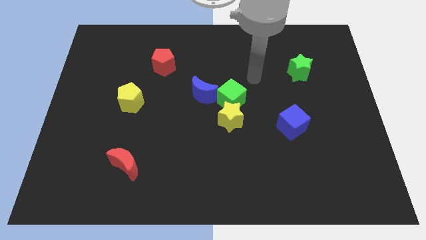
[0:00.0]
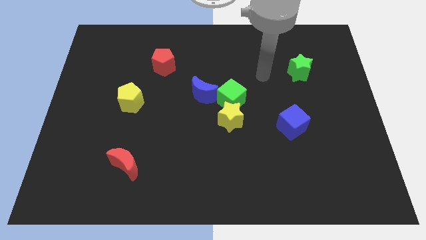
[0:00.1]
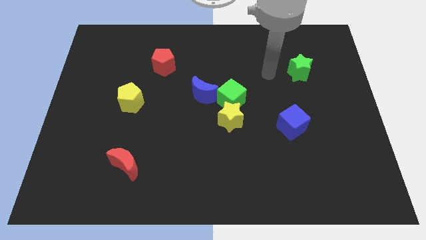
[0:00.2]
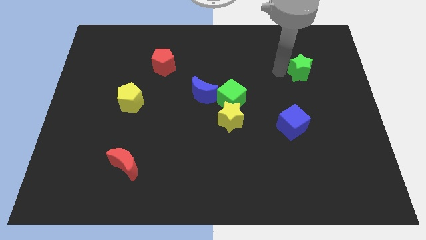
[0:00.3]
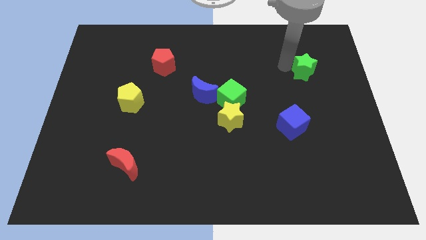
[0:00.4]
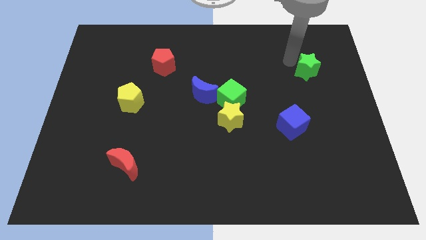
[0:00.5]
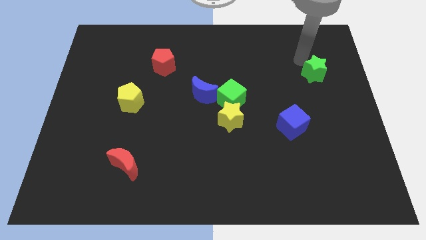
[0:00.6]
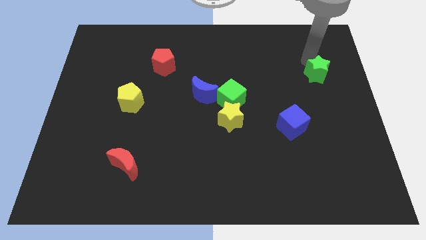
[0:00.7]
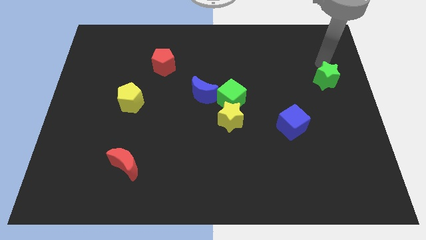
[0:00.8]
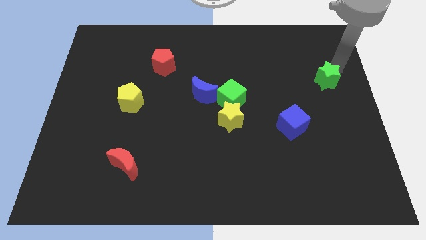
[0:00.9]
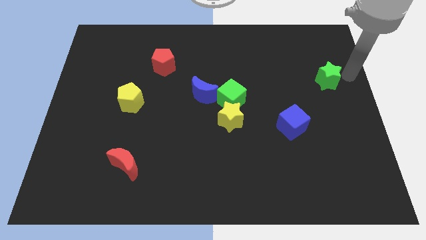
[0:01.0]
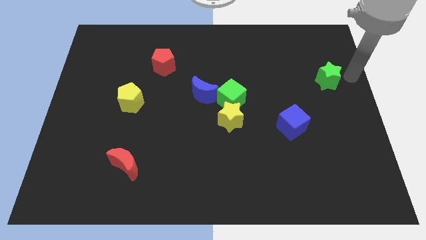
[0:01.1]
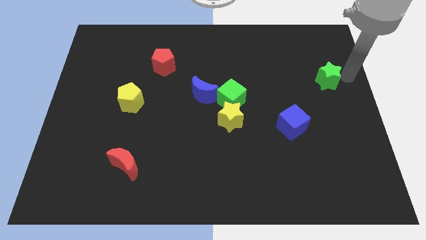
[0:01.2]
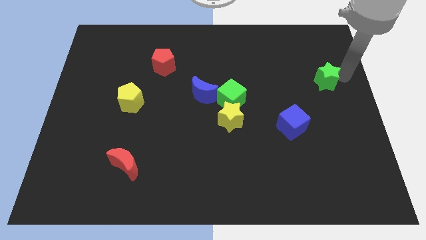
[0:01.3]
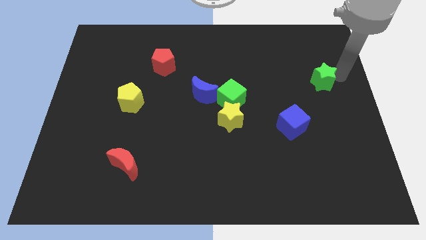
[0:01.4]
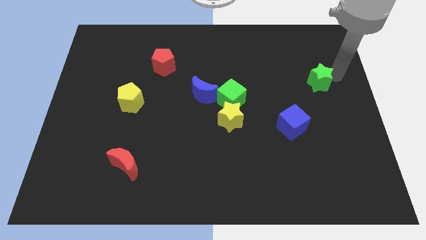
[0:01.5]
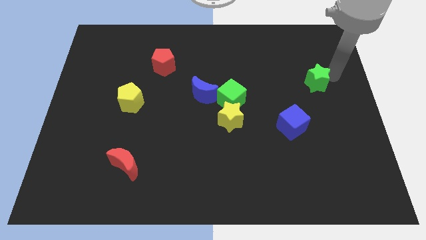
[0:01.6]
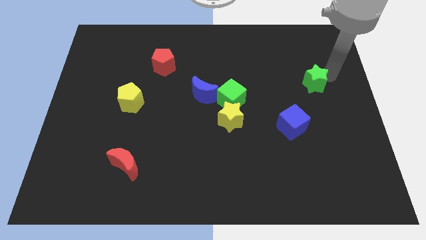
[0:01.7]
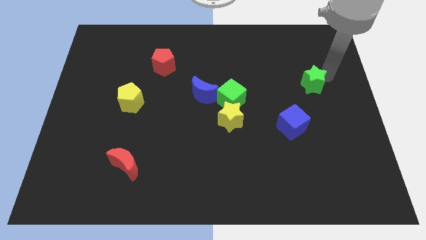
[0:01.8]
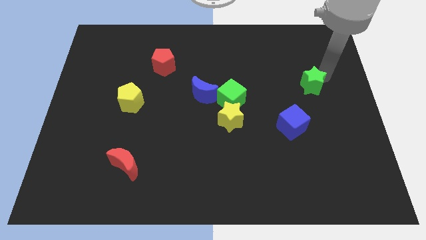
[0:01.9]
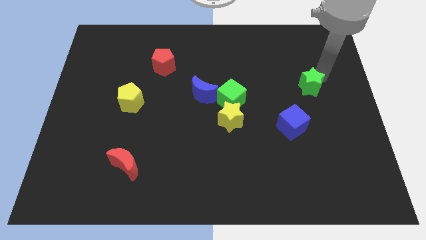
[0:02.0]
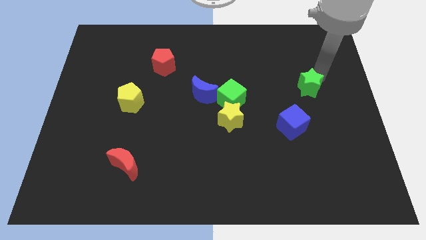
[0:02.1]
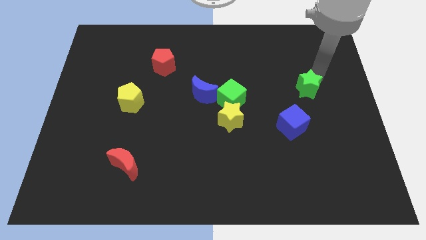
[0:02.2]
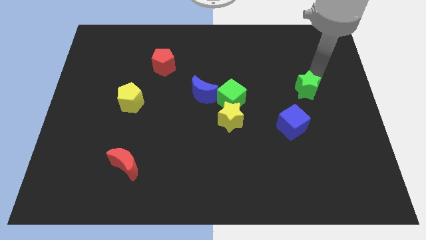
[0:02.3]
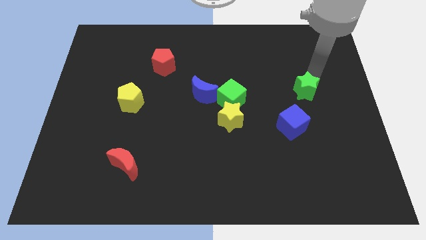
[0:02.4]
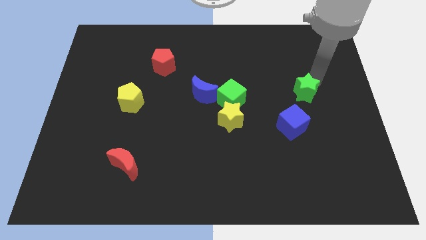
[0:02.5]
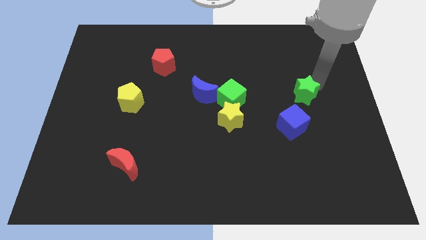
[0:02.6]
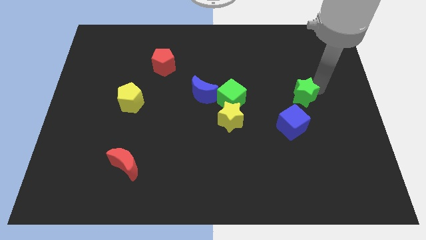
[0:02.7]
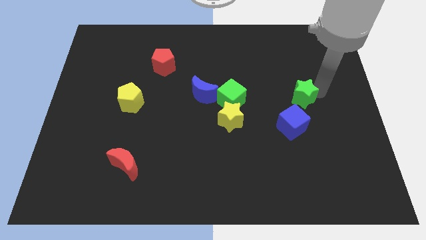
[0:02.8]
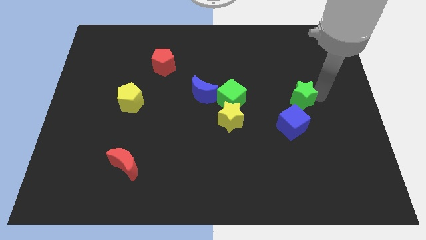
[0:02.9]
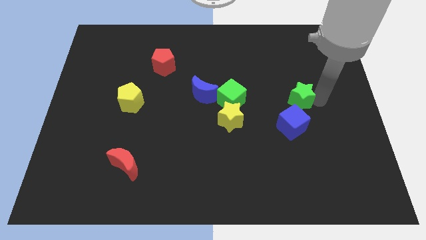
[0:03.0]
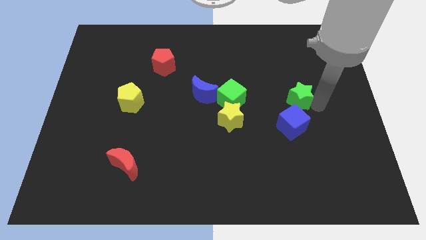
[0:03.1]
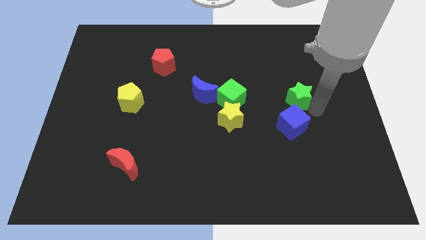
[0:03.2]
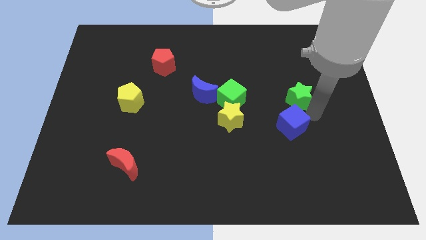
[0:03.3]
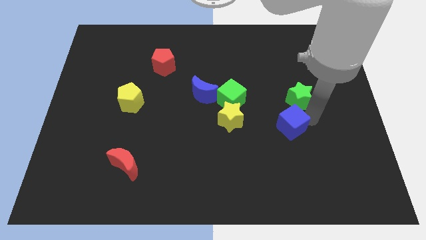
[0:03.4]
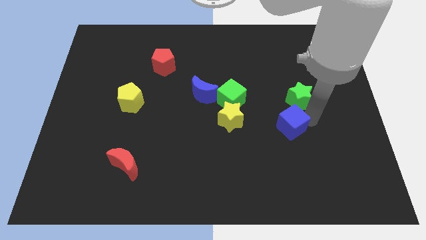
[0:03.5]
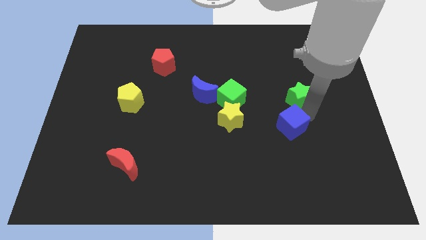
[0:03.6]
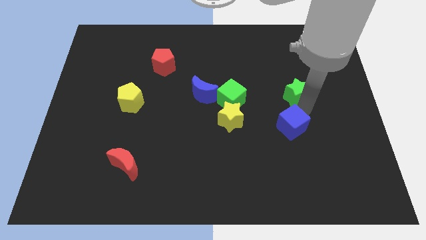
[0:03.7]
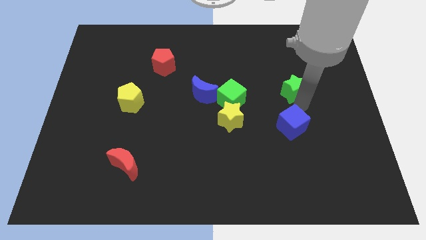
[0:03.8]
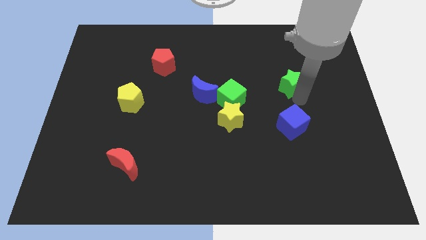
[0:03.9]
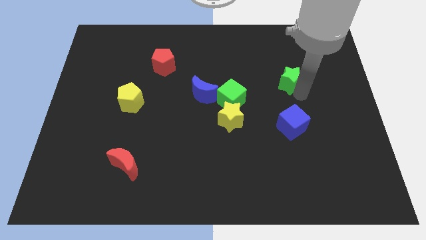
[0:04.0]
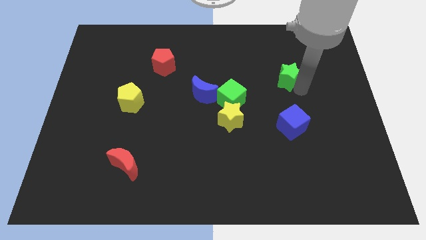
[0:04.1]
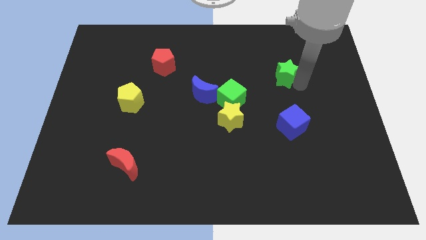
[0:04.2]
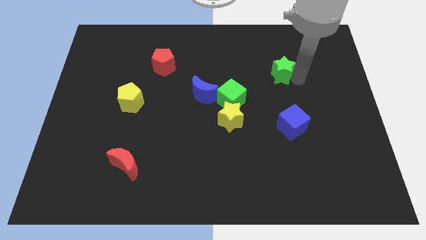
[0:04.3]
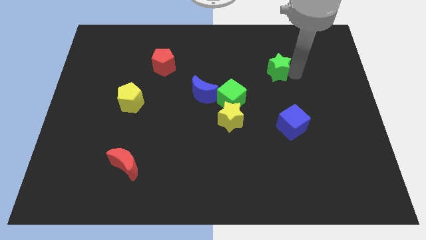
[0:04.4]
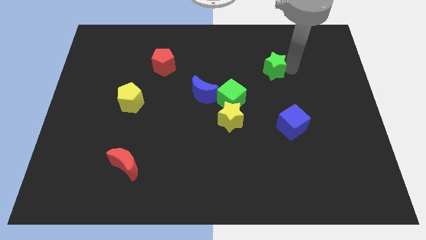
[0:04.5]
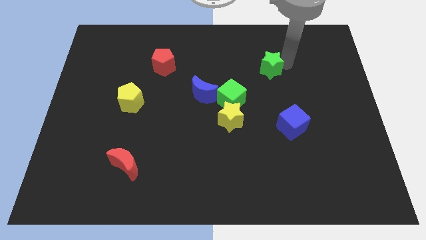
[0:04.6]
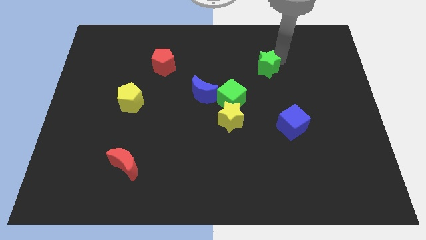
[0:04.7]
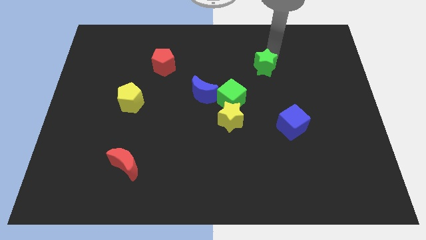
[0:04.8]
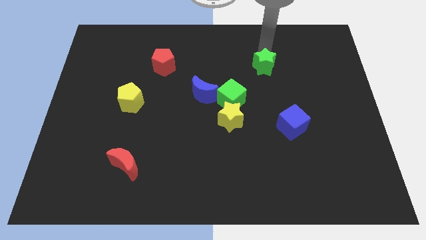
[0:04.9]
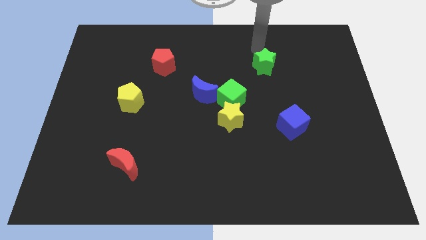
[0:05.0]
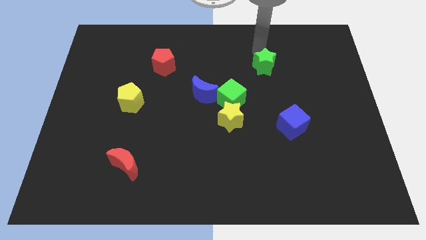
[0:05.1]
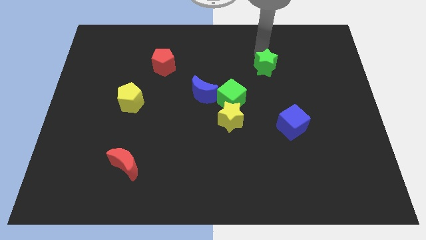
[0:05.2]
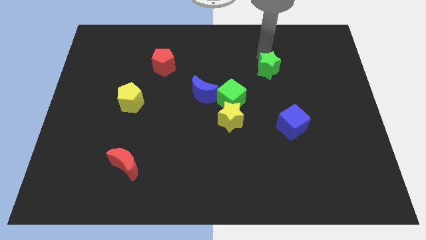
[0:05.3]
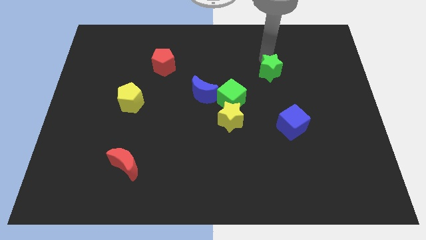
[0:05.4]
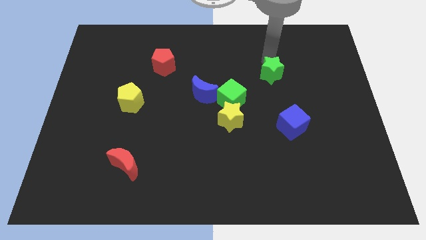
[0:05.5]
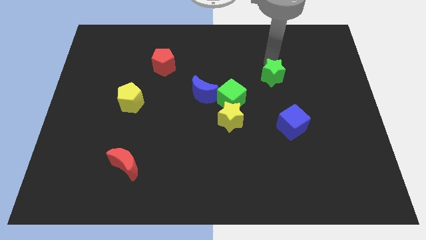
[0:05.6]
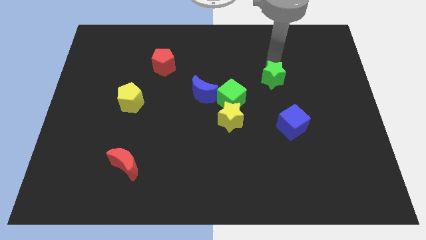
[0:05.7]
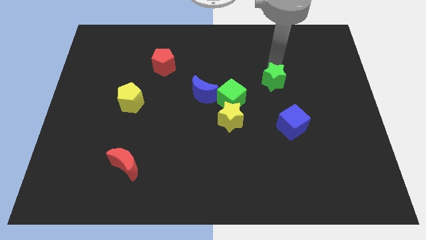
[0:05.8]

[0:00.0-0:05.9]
slightly slide the green star diagonally downwards and left

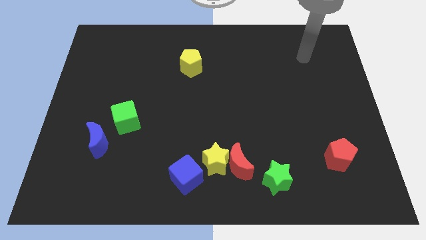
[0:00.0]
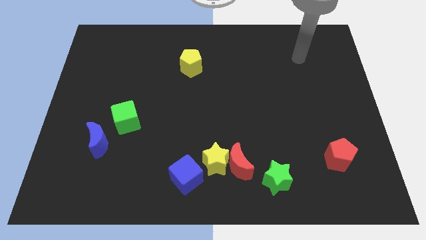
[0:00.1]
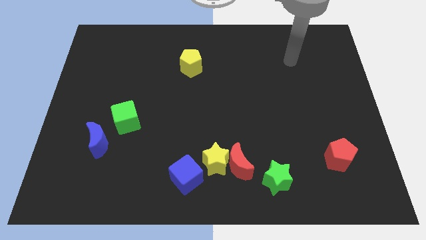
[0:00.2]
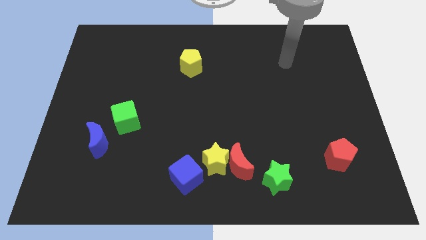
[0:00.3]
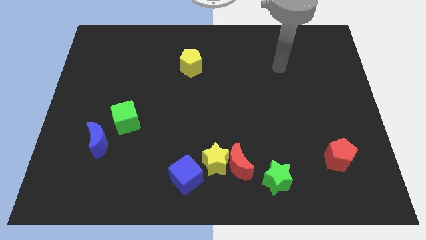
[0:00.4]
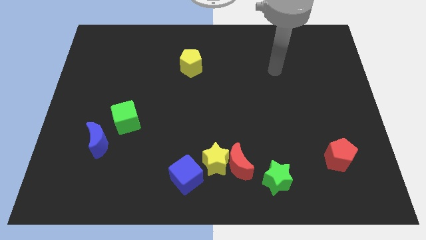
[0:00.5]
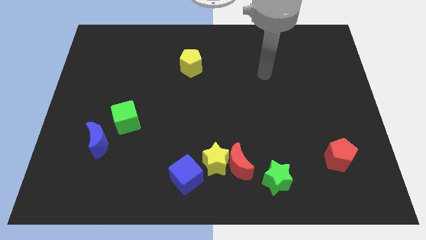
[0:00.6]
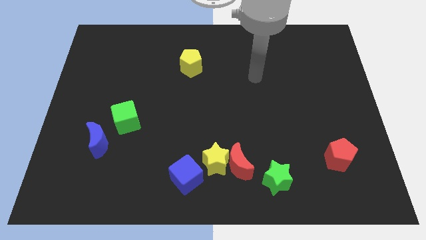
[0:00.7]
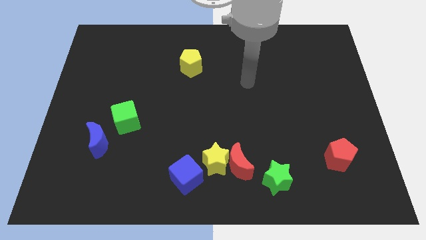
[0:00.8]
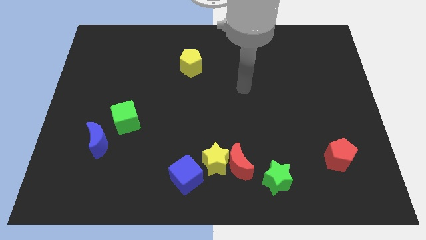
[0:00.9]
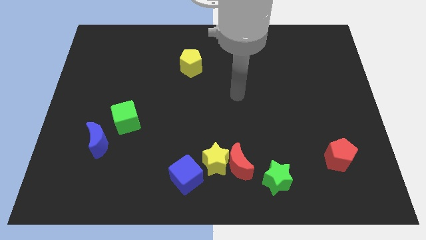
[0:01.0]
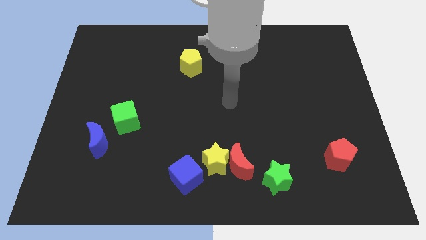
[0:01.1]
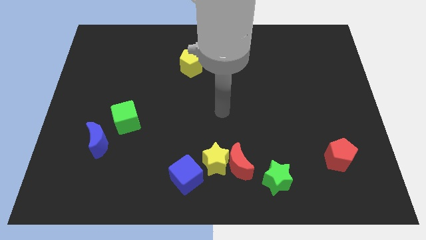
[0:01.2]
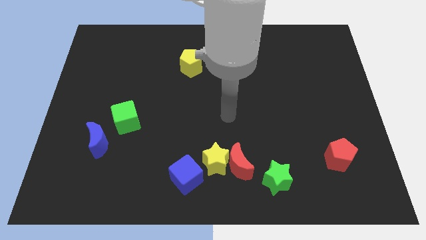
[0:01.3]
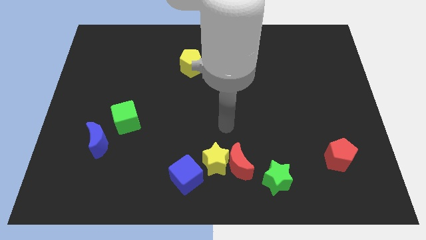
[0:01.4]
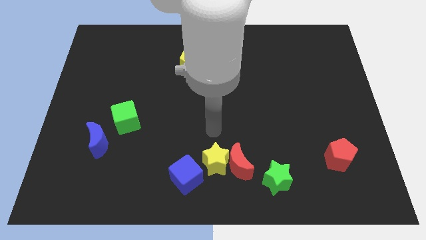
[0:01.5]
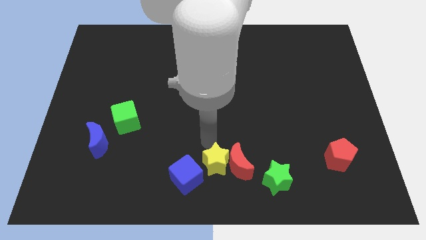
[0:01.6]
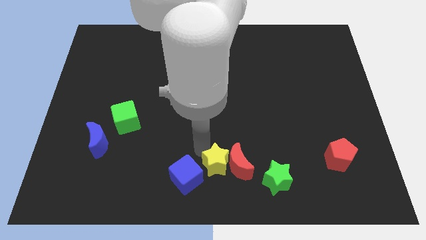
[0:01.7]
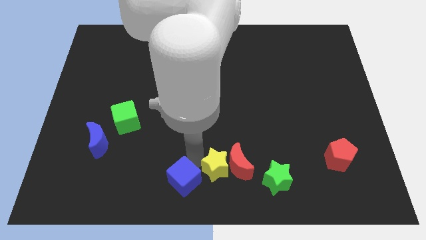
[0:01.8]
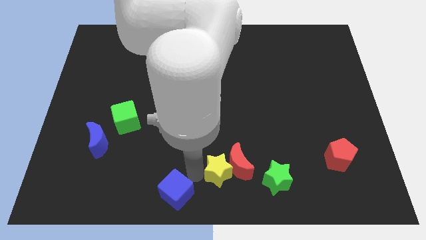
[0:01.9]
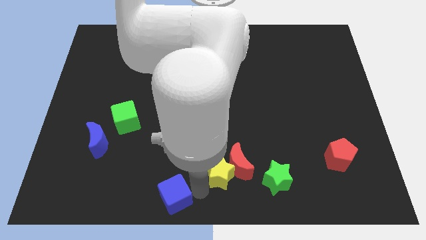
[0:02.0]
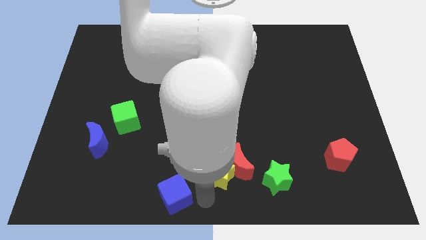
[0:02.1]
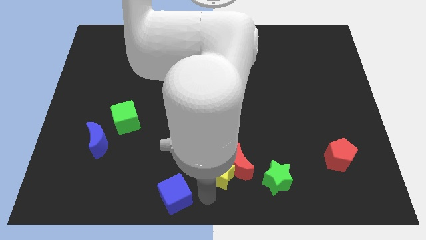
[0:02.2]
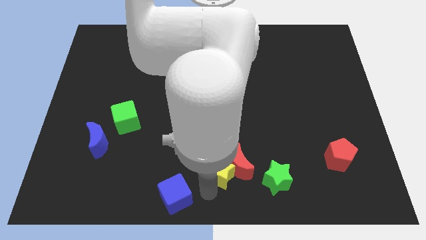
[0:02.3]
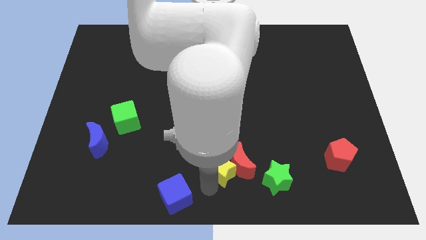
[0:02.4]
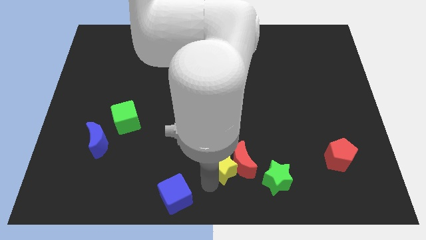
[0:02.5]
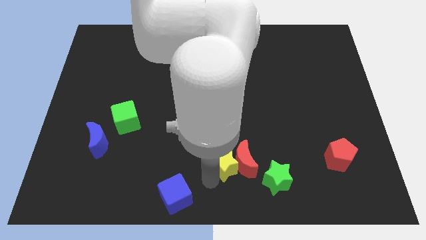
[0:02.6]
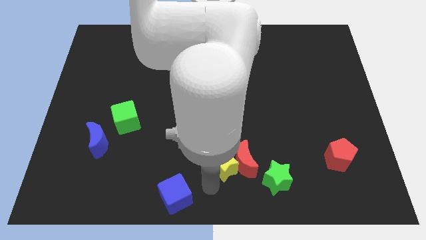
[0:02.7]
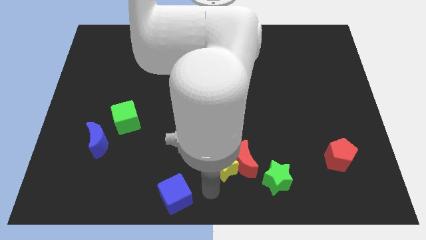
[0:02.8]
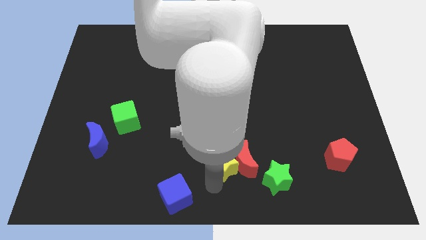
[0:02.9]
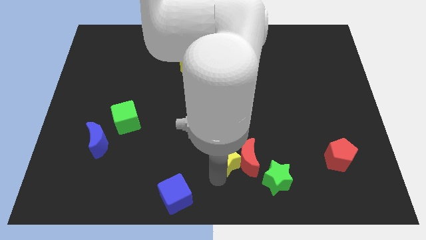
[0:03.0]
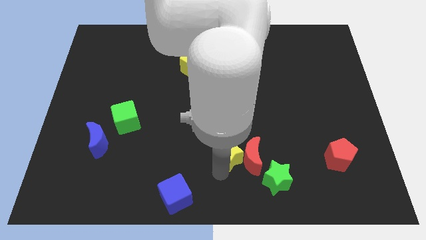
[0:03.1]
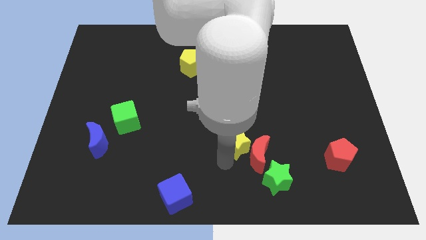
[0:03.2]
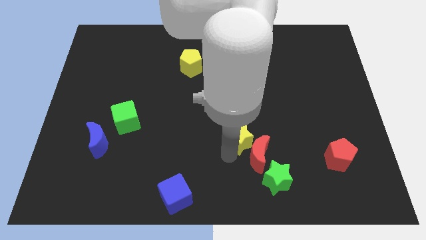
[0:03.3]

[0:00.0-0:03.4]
slightly move the yellow star diagonally upwards and to the right
